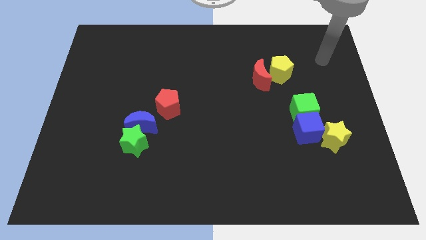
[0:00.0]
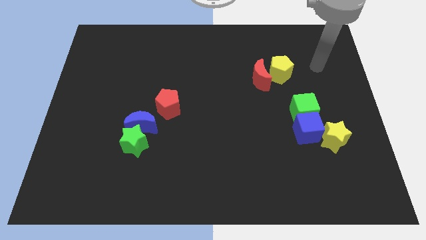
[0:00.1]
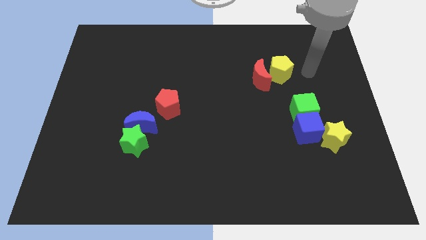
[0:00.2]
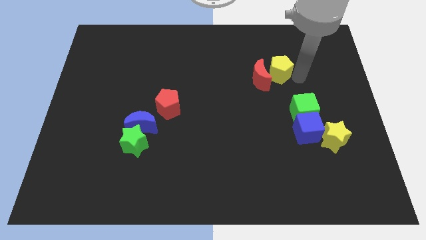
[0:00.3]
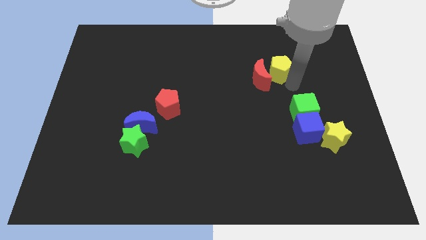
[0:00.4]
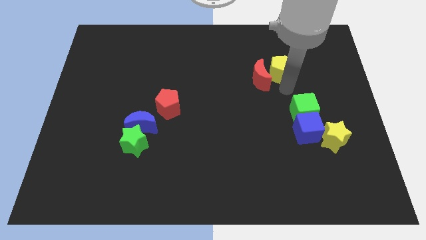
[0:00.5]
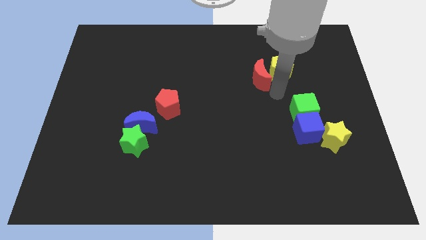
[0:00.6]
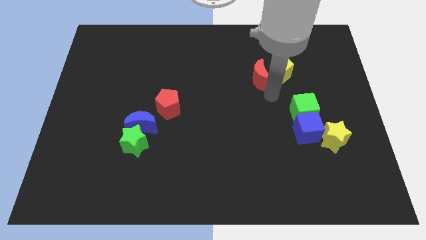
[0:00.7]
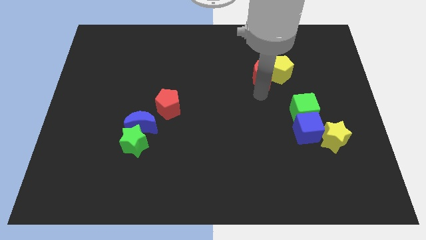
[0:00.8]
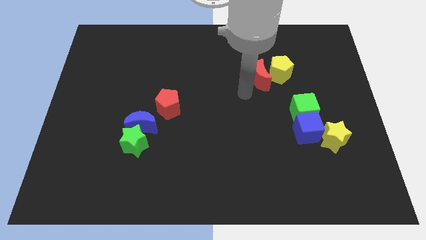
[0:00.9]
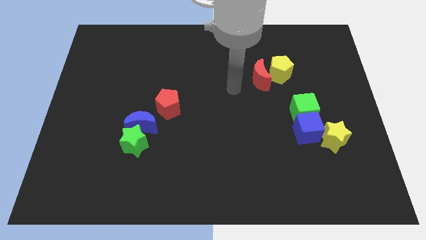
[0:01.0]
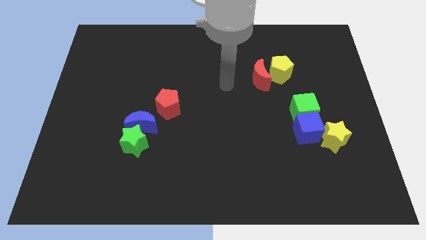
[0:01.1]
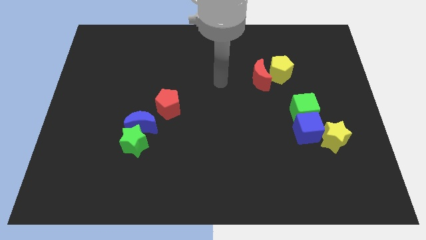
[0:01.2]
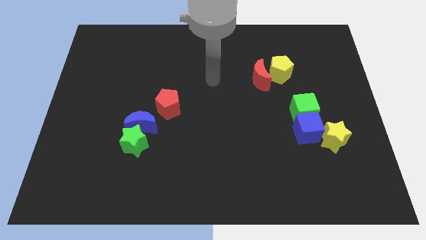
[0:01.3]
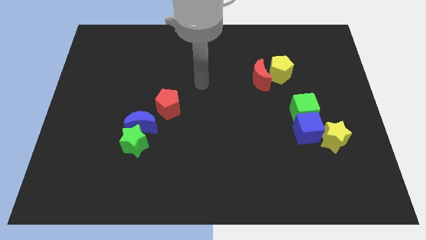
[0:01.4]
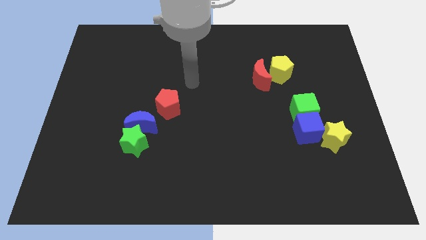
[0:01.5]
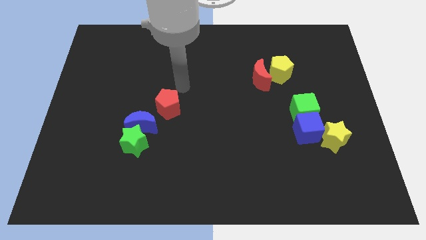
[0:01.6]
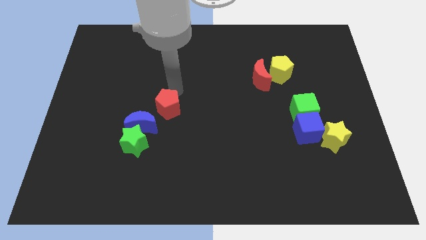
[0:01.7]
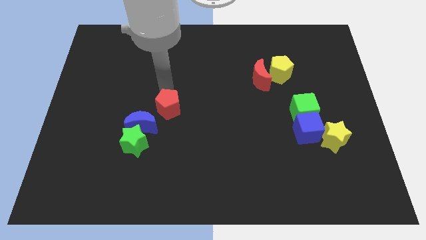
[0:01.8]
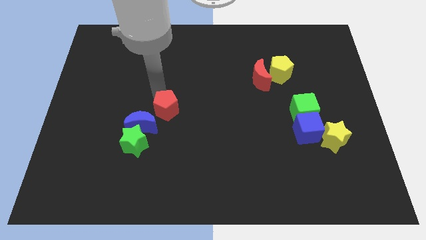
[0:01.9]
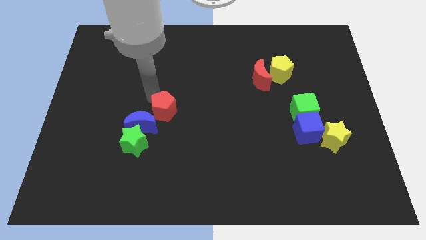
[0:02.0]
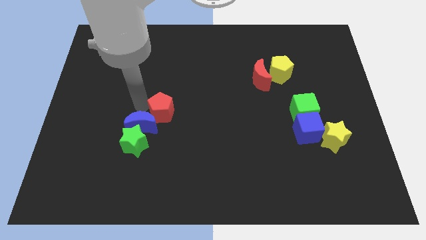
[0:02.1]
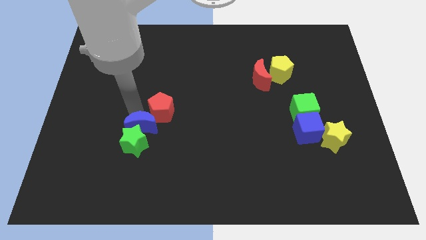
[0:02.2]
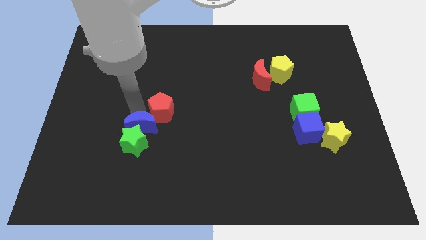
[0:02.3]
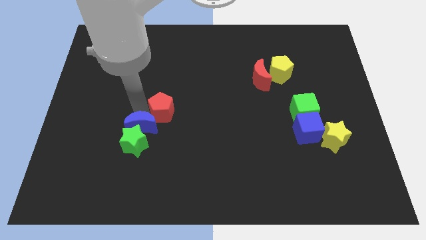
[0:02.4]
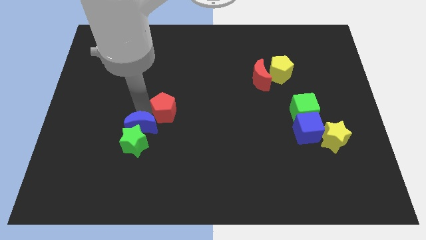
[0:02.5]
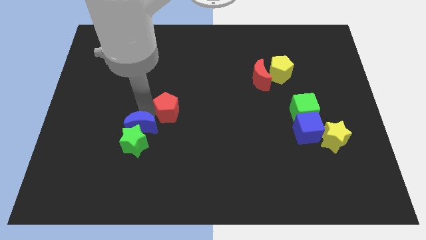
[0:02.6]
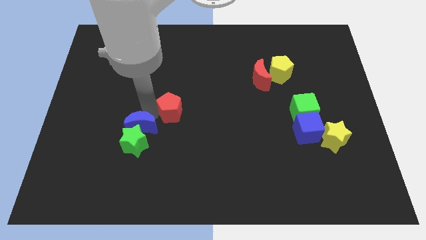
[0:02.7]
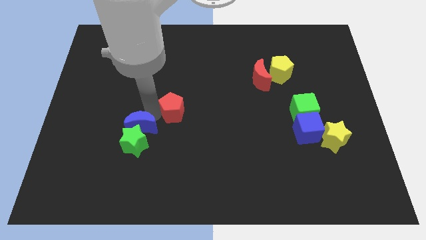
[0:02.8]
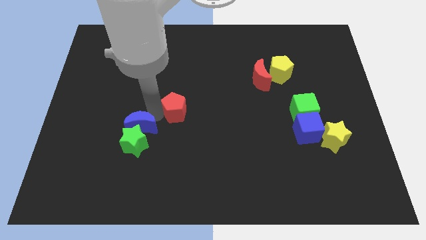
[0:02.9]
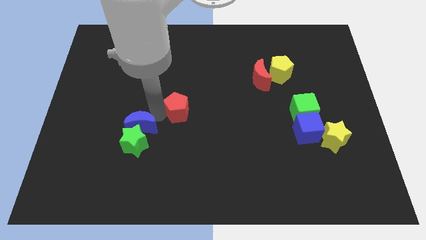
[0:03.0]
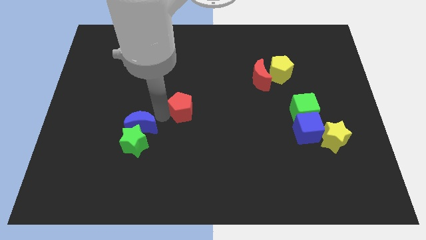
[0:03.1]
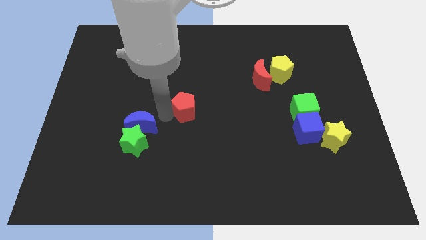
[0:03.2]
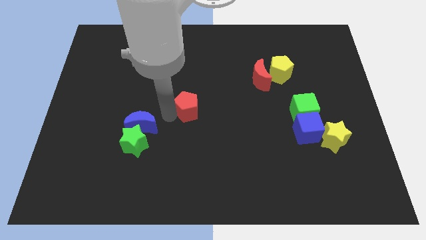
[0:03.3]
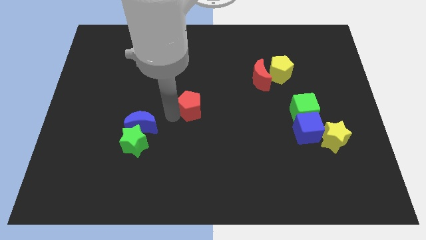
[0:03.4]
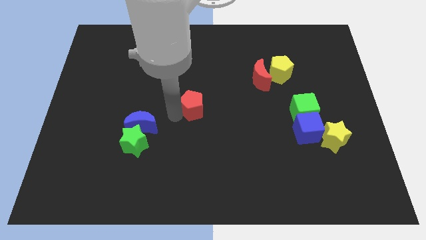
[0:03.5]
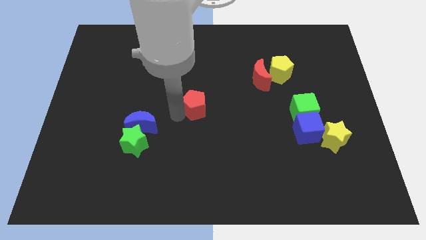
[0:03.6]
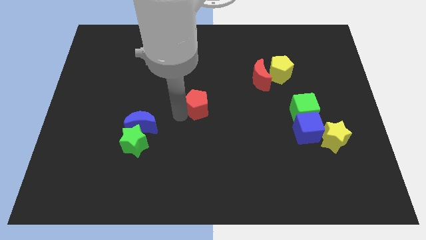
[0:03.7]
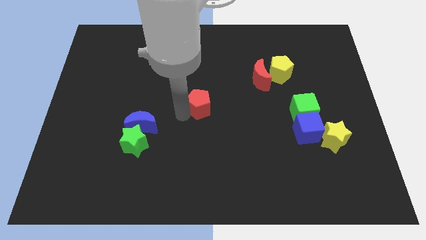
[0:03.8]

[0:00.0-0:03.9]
slightly move the red pentagon to the right

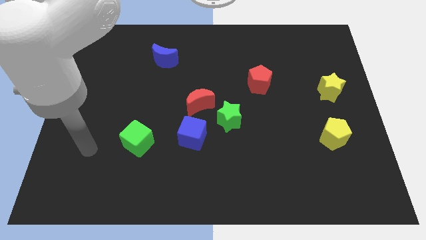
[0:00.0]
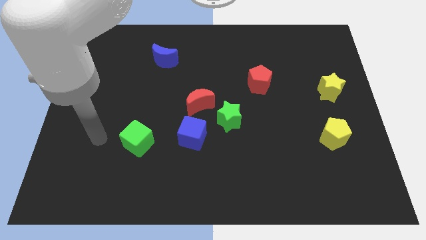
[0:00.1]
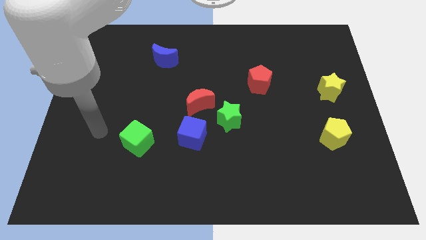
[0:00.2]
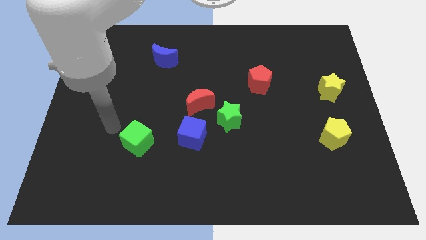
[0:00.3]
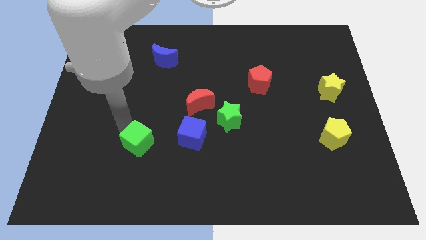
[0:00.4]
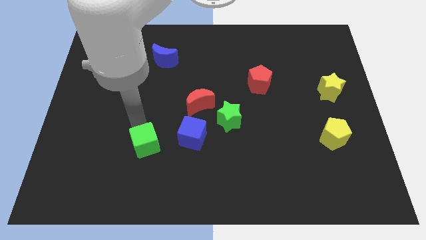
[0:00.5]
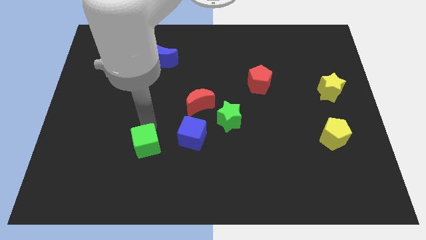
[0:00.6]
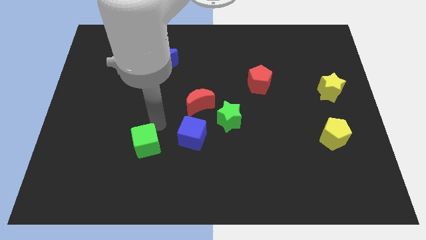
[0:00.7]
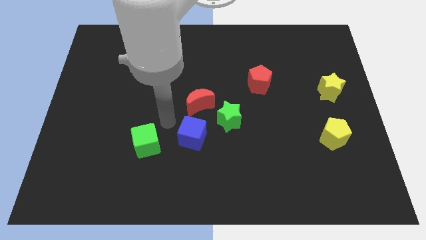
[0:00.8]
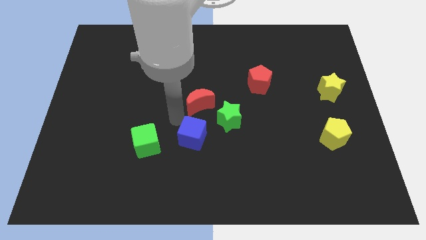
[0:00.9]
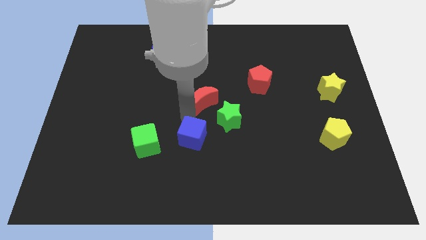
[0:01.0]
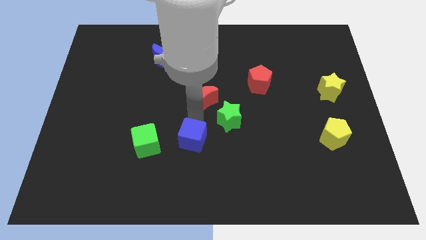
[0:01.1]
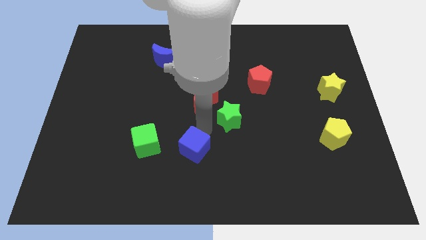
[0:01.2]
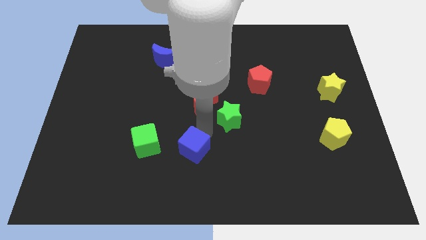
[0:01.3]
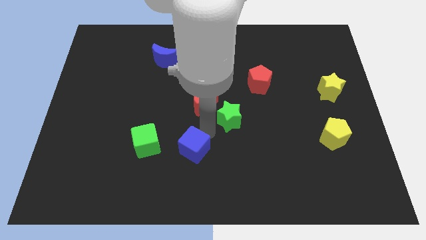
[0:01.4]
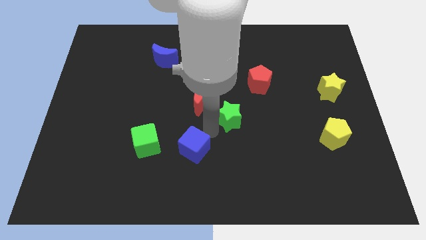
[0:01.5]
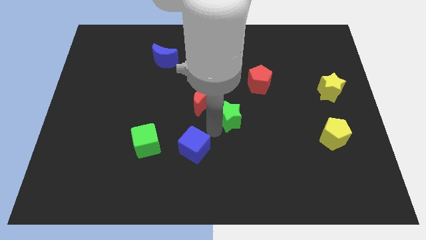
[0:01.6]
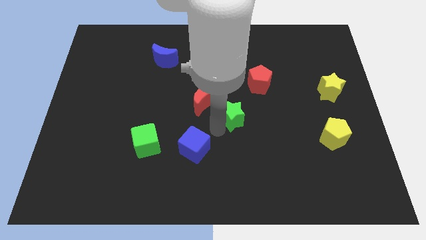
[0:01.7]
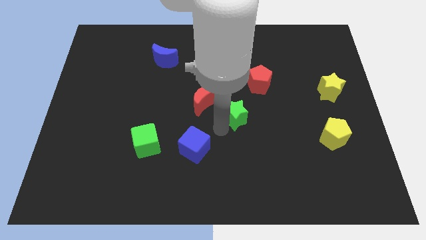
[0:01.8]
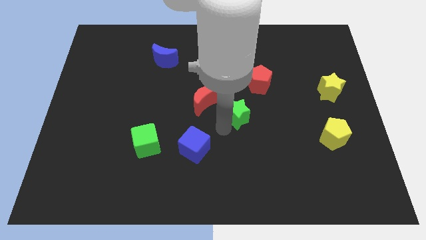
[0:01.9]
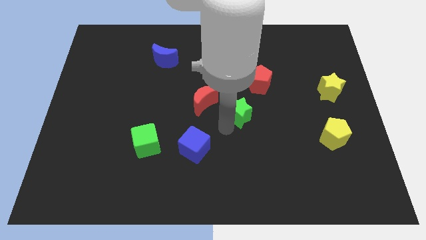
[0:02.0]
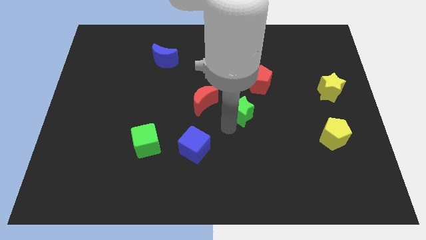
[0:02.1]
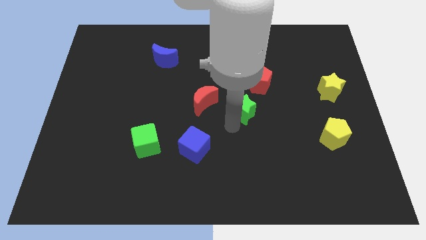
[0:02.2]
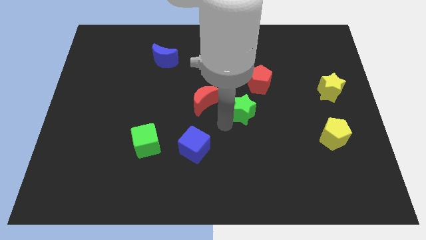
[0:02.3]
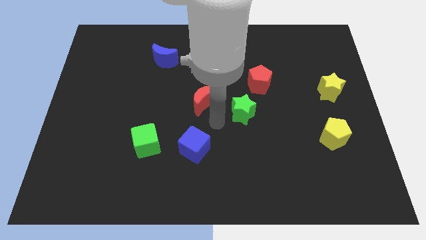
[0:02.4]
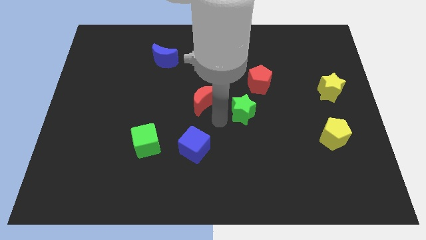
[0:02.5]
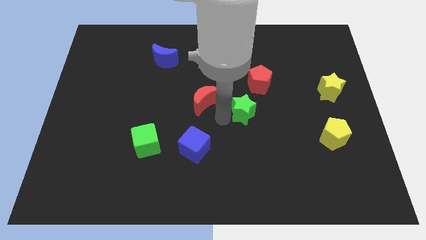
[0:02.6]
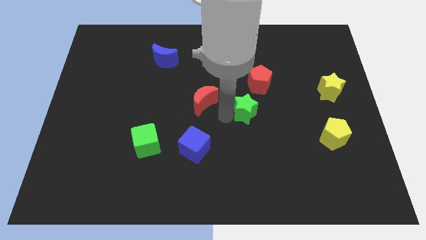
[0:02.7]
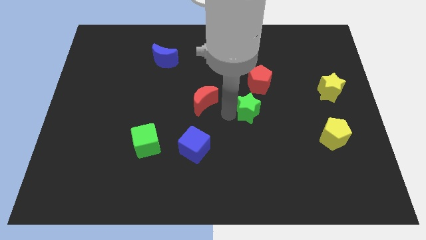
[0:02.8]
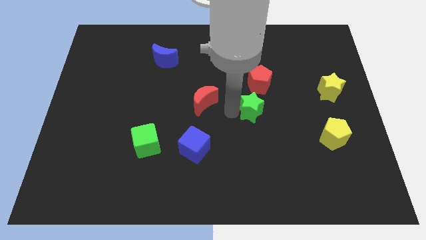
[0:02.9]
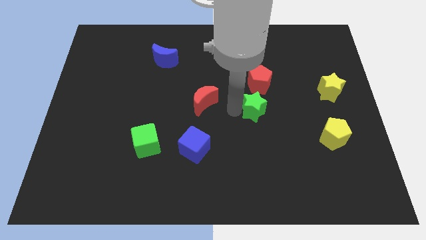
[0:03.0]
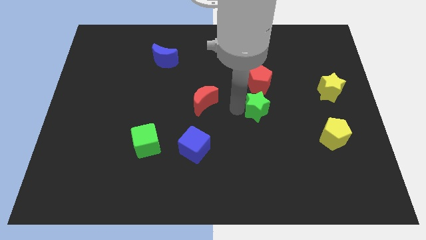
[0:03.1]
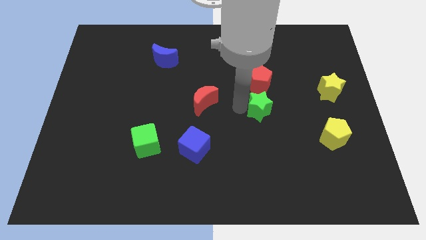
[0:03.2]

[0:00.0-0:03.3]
slightly push the green star diagonally upwards and right
